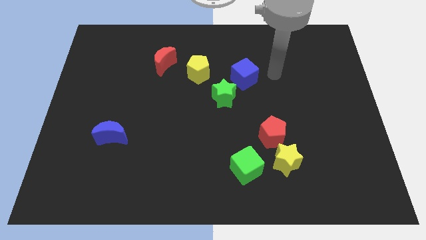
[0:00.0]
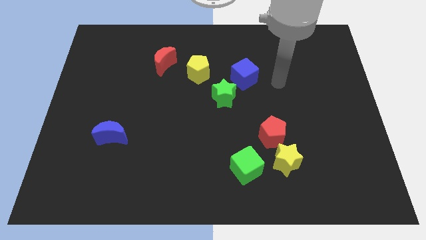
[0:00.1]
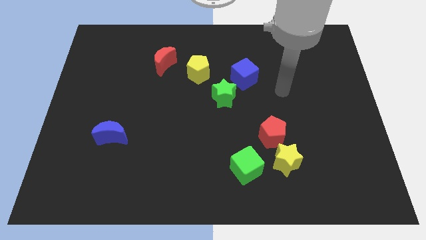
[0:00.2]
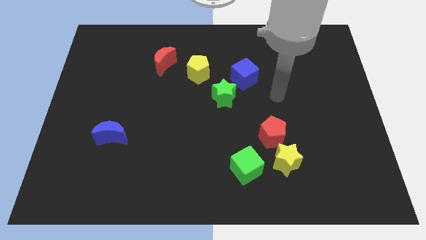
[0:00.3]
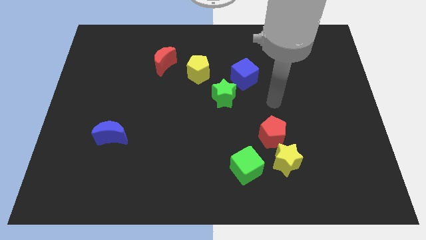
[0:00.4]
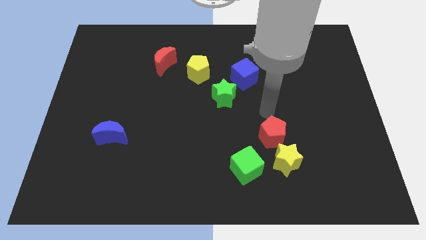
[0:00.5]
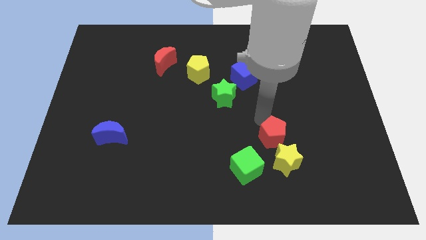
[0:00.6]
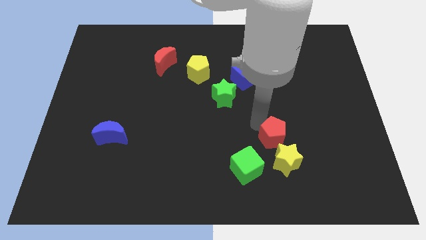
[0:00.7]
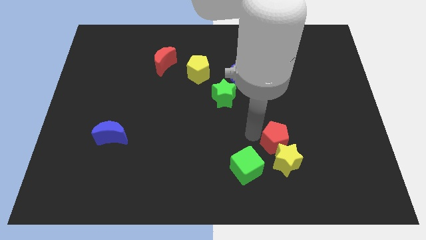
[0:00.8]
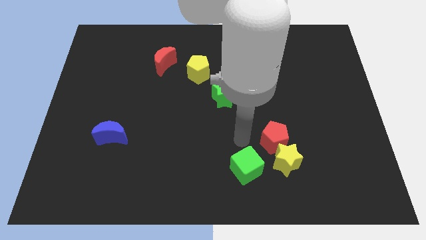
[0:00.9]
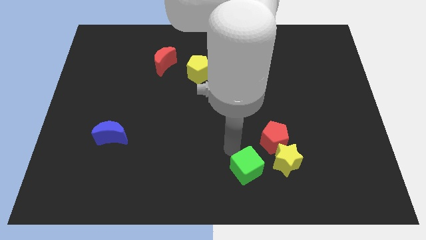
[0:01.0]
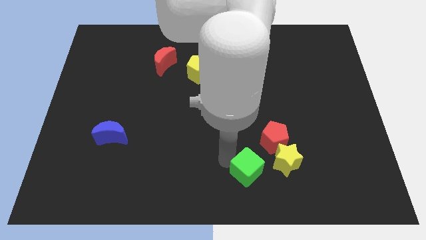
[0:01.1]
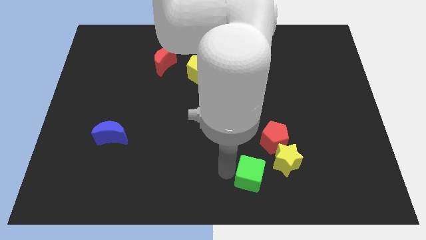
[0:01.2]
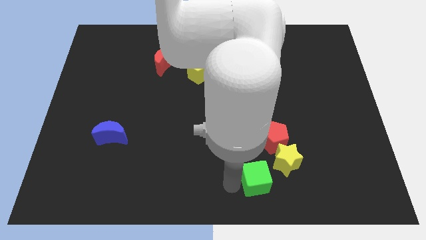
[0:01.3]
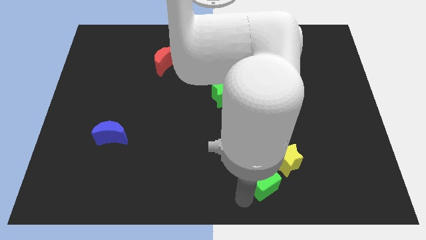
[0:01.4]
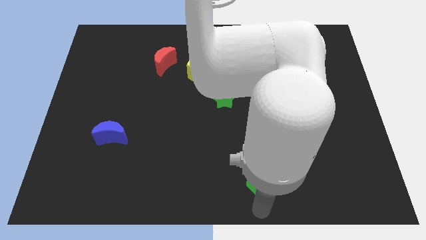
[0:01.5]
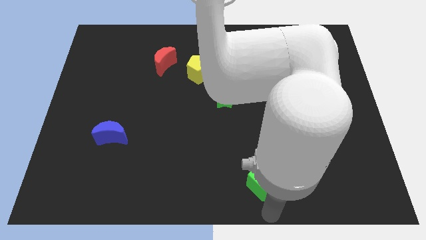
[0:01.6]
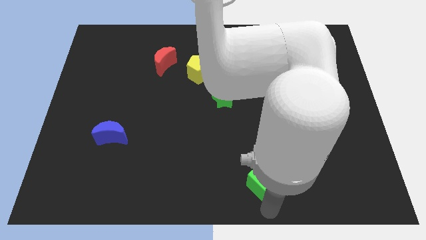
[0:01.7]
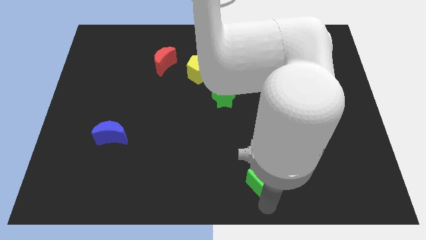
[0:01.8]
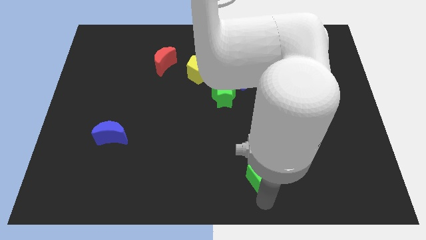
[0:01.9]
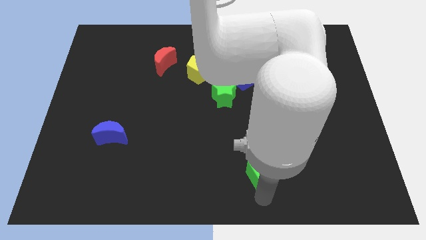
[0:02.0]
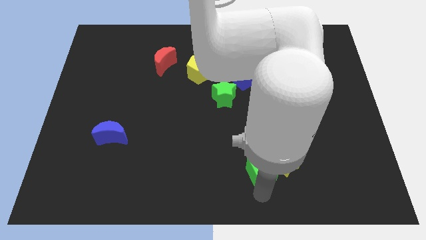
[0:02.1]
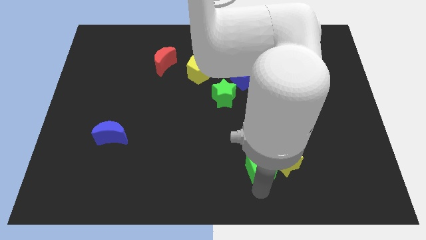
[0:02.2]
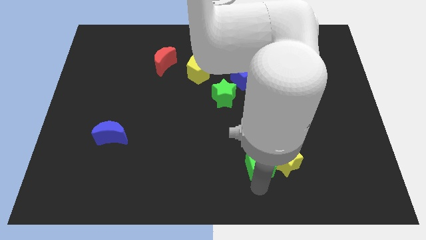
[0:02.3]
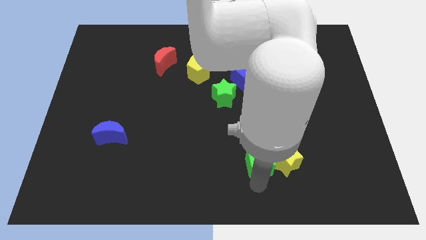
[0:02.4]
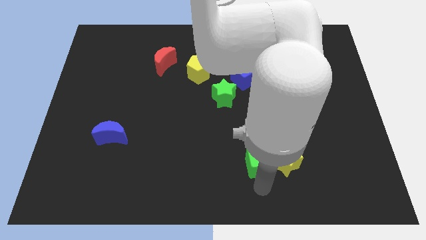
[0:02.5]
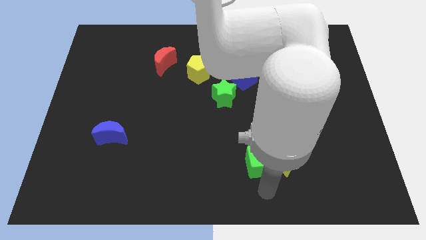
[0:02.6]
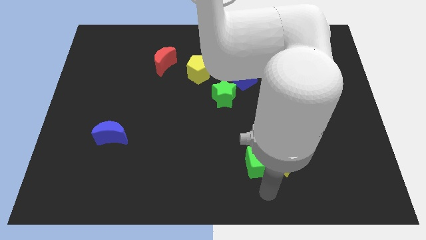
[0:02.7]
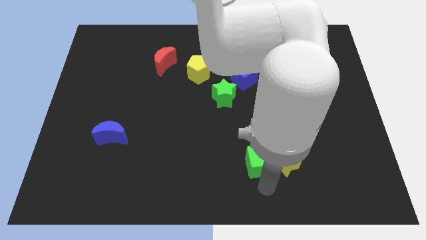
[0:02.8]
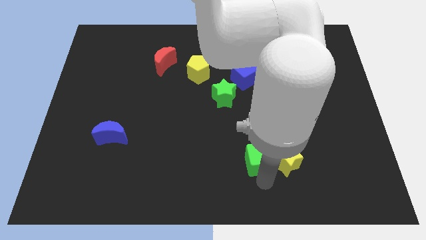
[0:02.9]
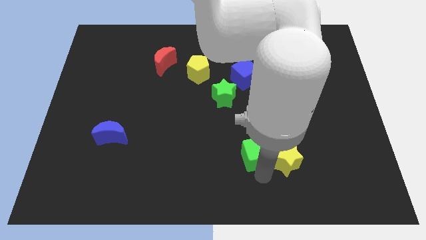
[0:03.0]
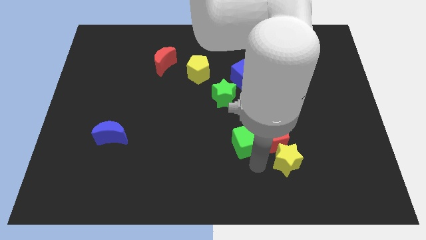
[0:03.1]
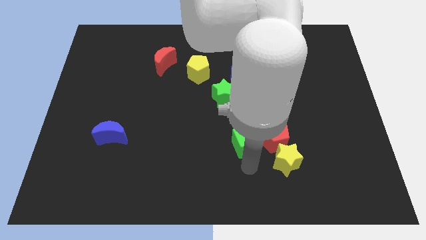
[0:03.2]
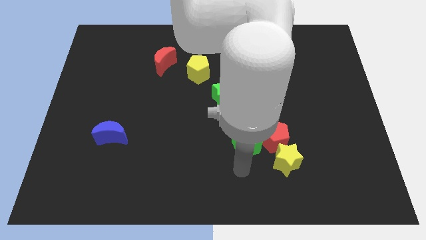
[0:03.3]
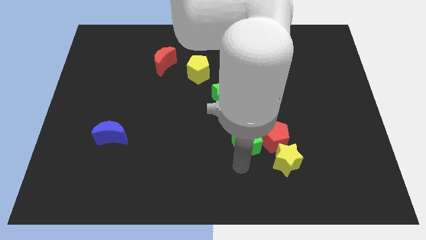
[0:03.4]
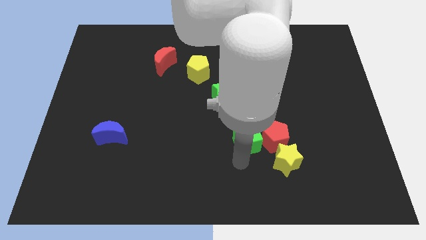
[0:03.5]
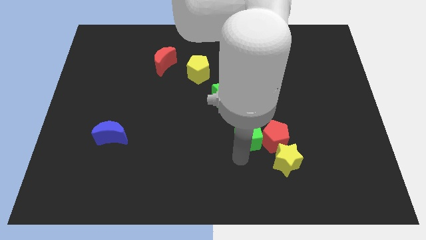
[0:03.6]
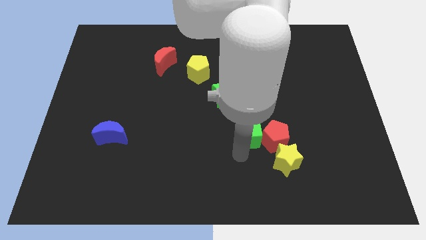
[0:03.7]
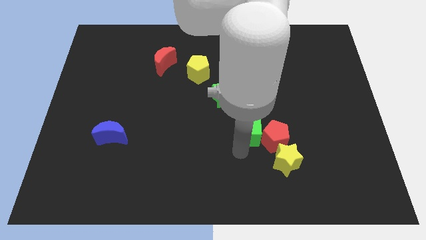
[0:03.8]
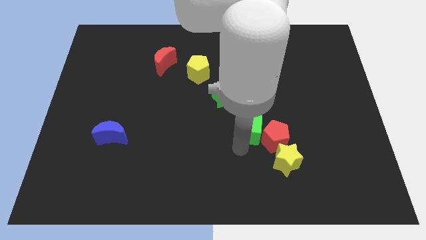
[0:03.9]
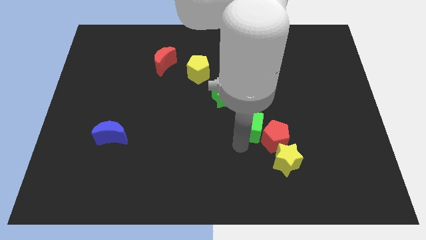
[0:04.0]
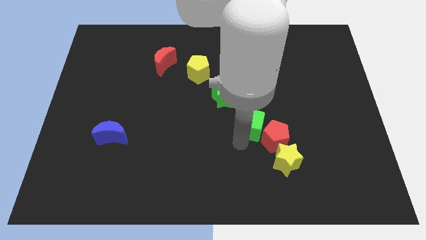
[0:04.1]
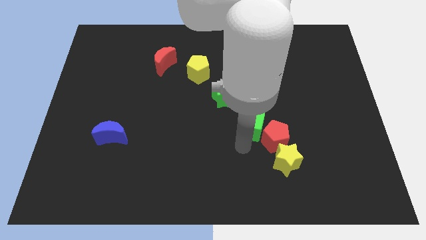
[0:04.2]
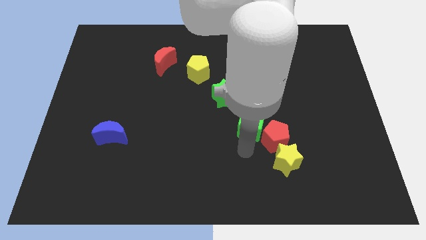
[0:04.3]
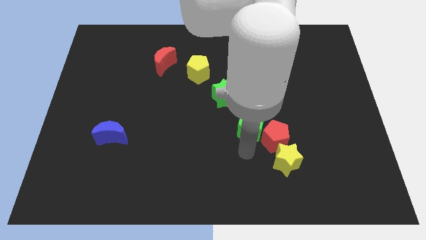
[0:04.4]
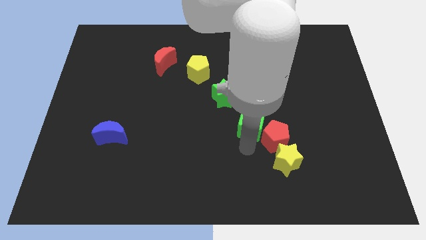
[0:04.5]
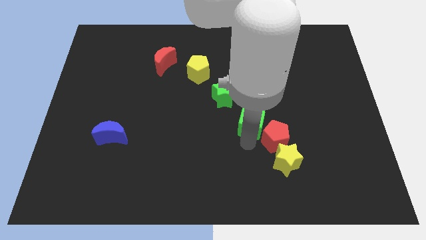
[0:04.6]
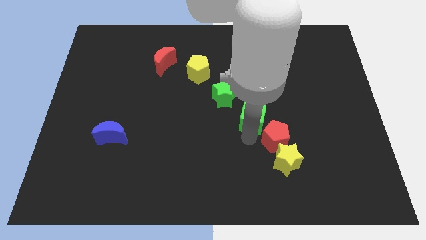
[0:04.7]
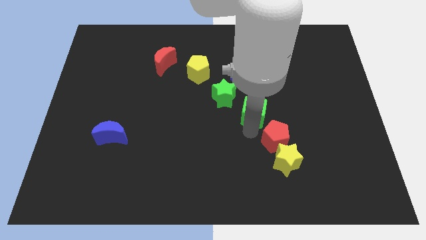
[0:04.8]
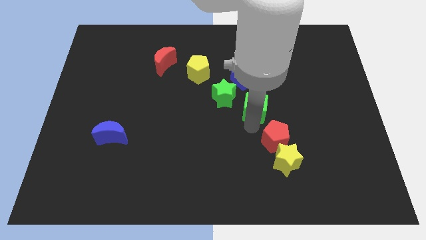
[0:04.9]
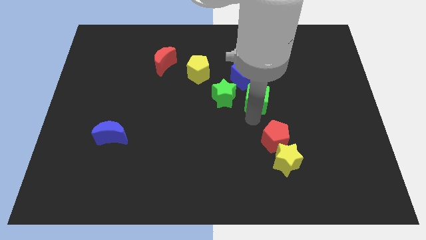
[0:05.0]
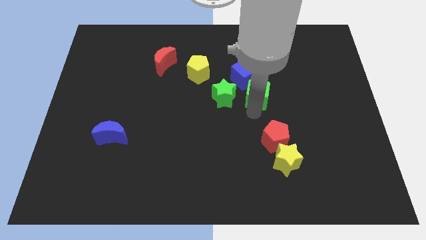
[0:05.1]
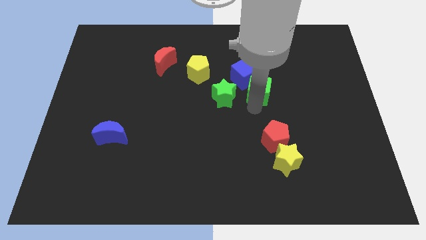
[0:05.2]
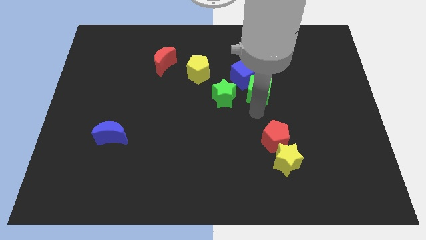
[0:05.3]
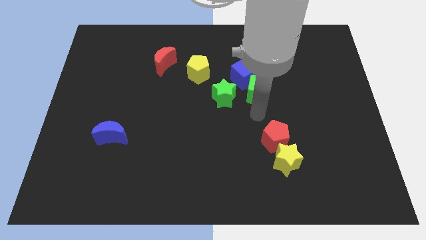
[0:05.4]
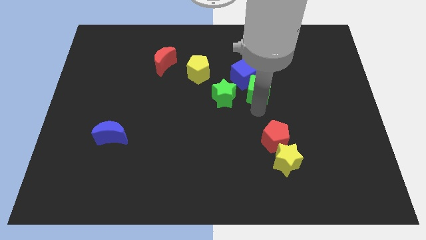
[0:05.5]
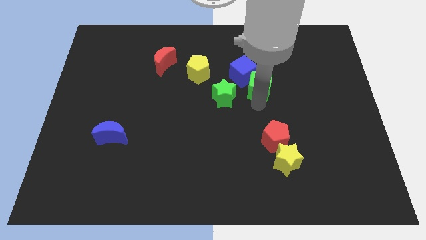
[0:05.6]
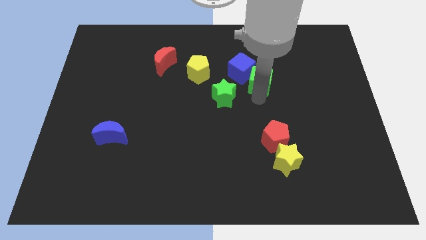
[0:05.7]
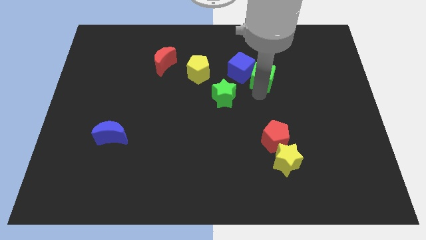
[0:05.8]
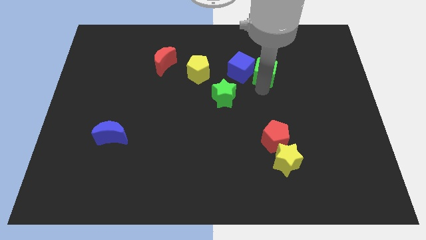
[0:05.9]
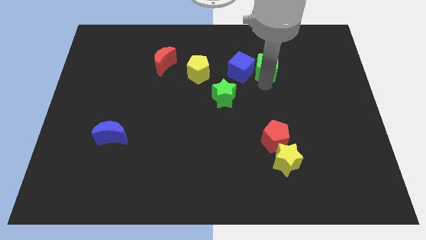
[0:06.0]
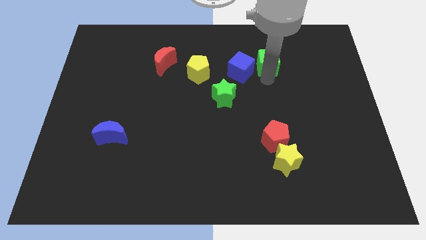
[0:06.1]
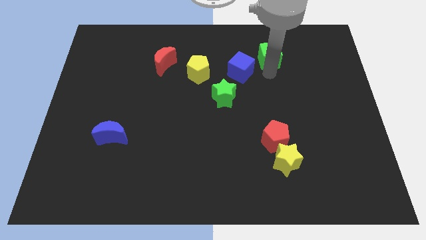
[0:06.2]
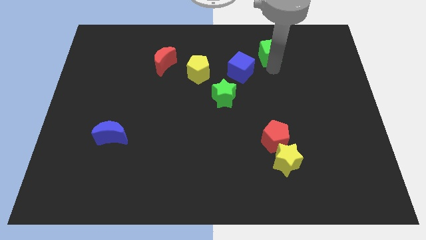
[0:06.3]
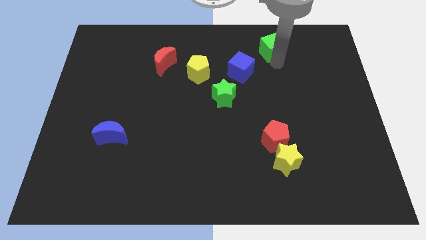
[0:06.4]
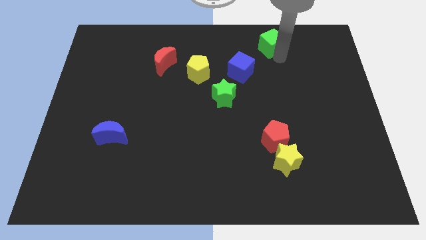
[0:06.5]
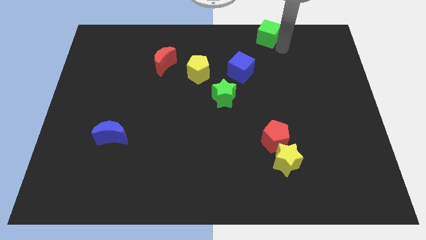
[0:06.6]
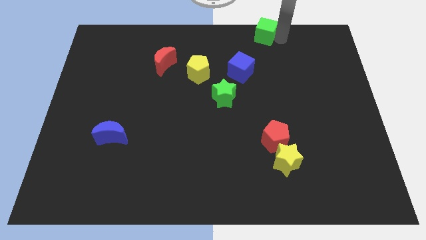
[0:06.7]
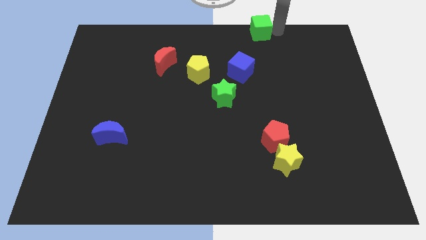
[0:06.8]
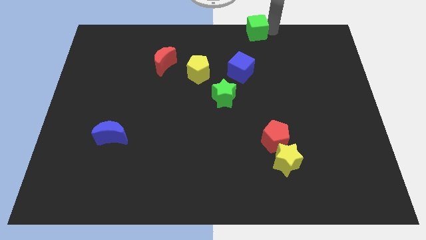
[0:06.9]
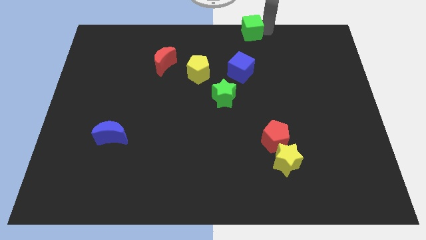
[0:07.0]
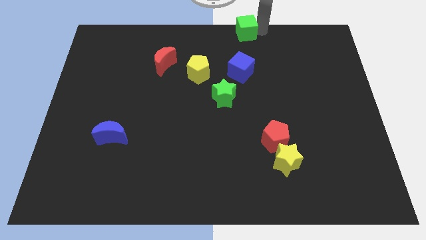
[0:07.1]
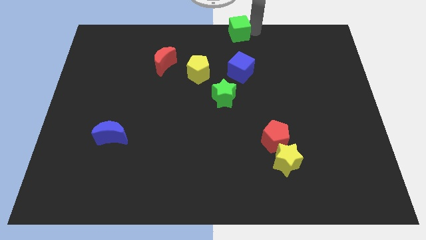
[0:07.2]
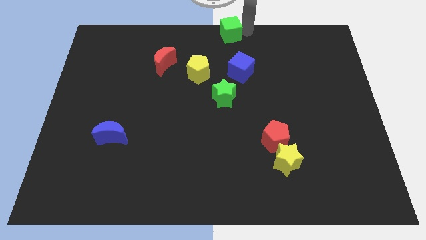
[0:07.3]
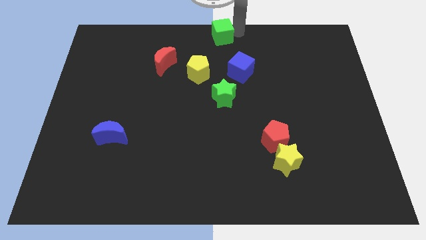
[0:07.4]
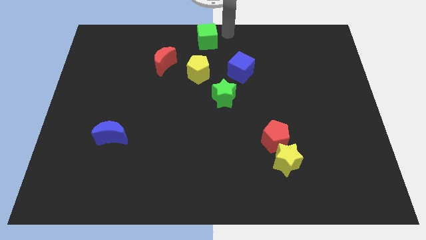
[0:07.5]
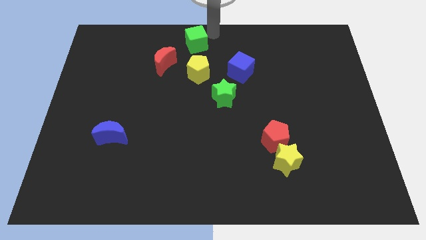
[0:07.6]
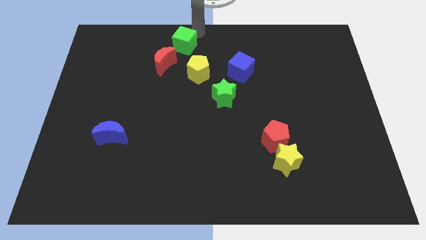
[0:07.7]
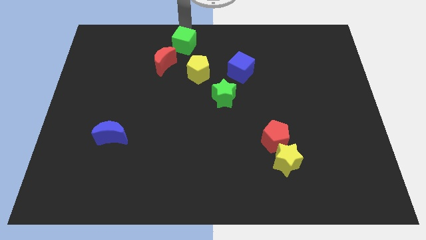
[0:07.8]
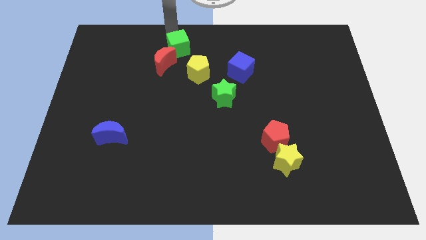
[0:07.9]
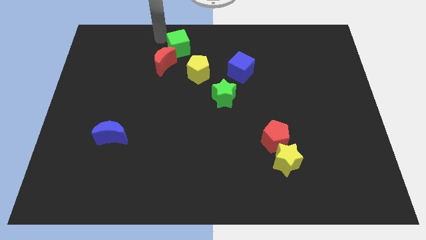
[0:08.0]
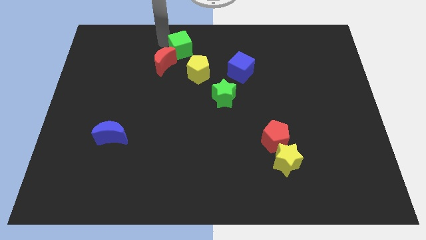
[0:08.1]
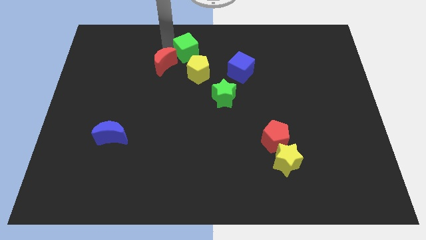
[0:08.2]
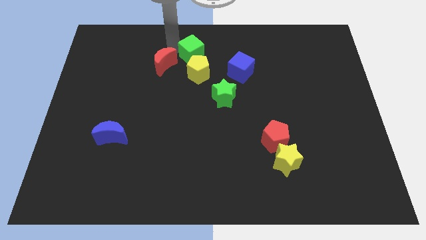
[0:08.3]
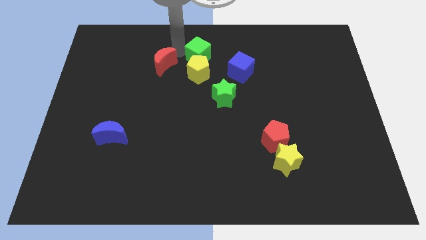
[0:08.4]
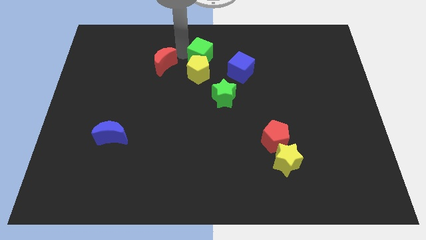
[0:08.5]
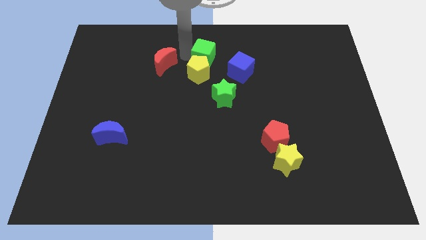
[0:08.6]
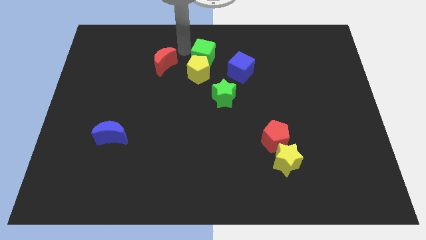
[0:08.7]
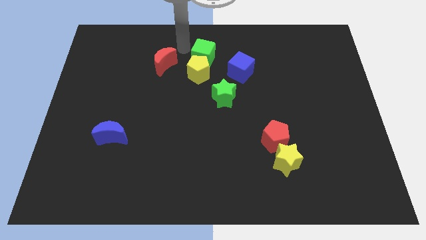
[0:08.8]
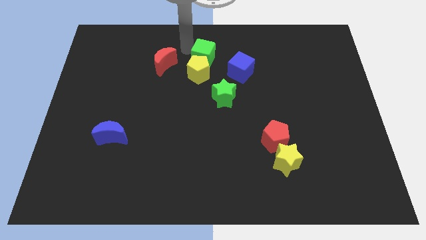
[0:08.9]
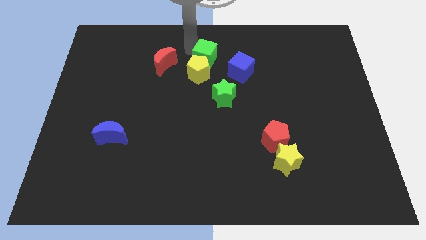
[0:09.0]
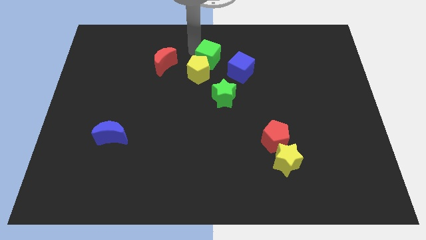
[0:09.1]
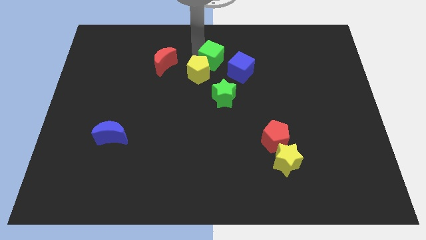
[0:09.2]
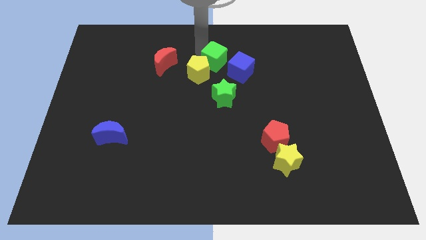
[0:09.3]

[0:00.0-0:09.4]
put the green cube to the right side of the yellow pentagon
